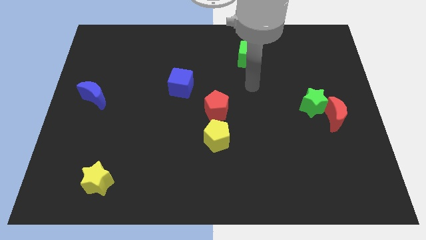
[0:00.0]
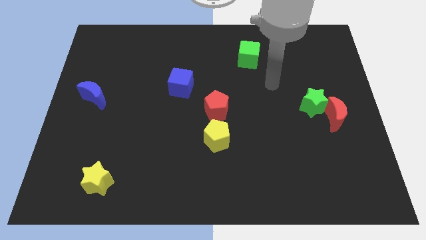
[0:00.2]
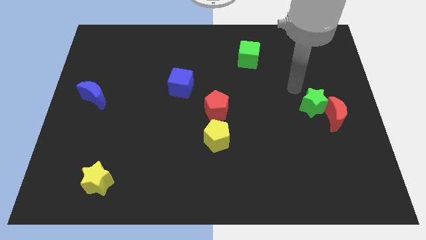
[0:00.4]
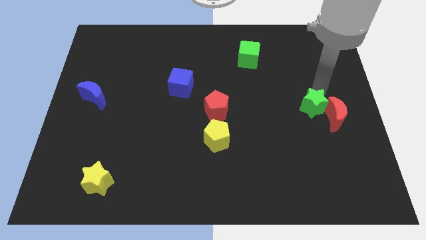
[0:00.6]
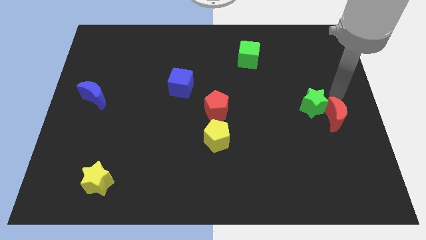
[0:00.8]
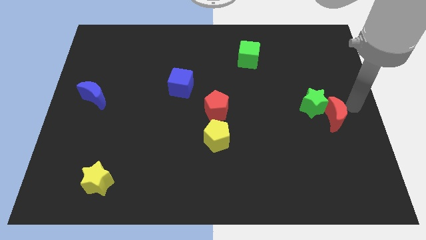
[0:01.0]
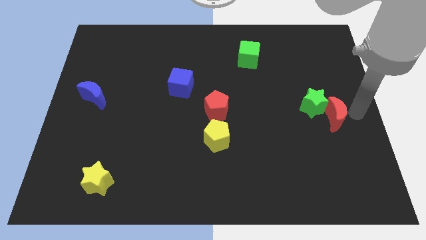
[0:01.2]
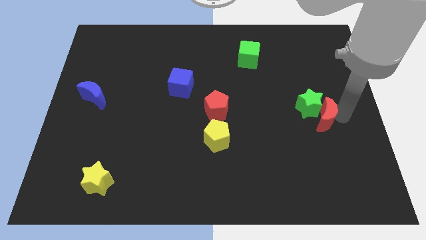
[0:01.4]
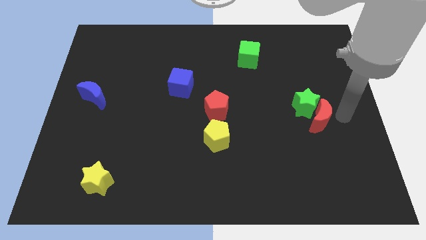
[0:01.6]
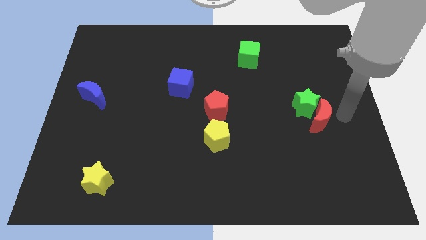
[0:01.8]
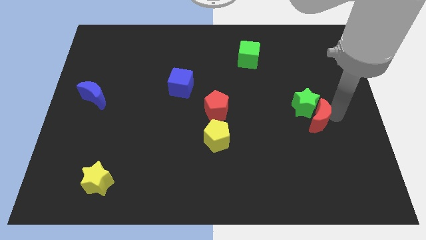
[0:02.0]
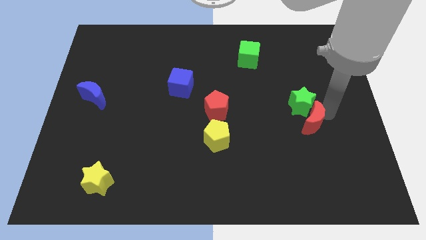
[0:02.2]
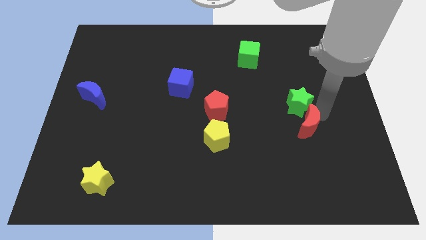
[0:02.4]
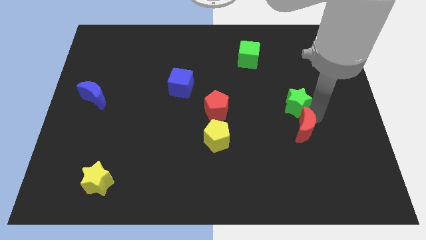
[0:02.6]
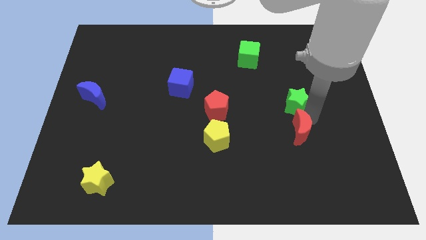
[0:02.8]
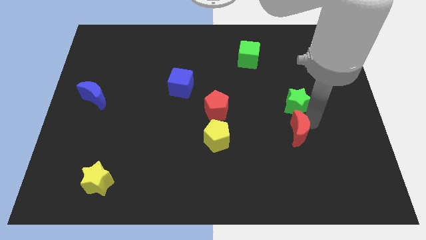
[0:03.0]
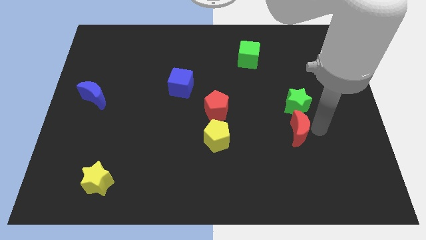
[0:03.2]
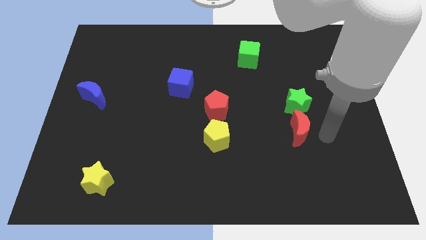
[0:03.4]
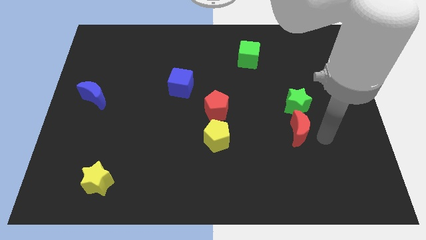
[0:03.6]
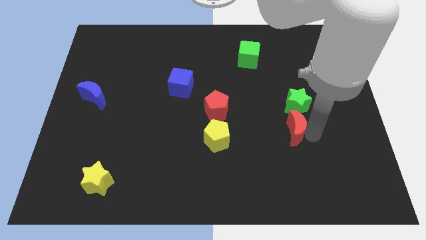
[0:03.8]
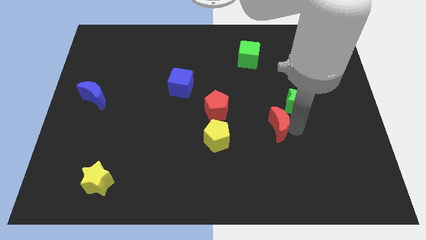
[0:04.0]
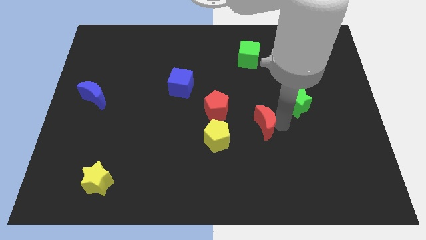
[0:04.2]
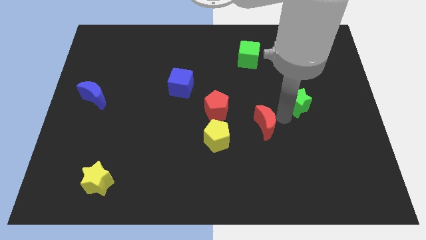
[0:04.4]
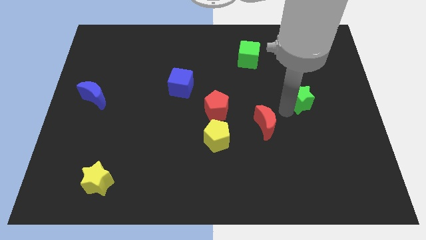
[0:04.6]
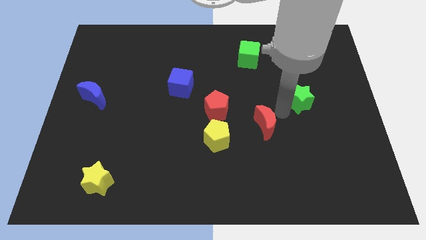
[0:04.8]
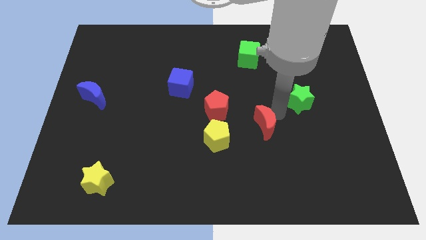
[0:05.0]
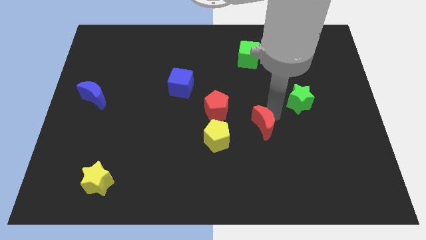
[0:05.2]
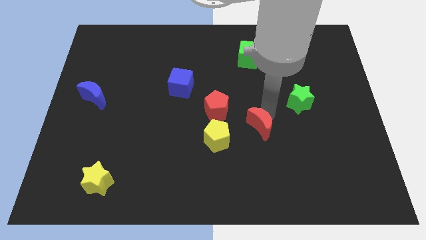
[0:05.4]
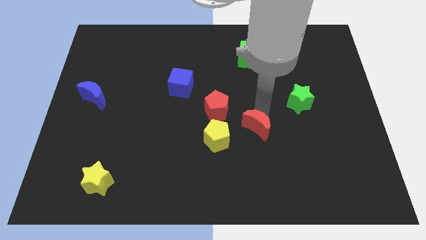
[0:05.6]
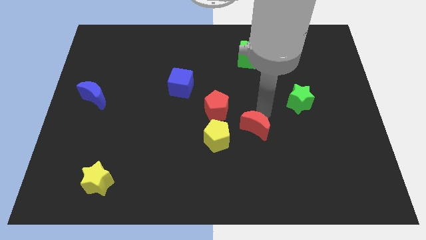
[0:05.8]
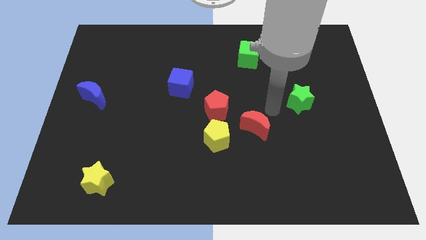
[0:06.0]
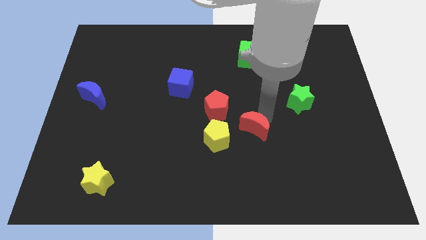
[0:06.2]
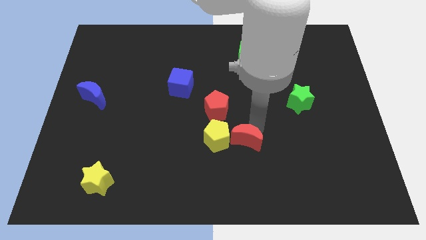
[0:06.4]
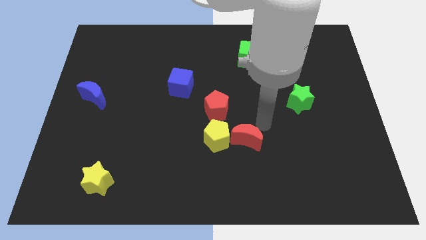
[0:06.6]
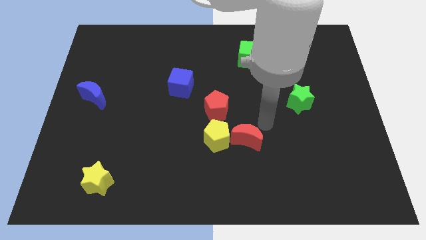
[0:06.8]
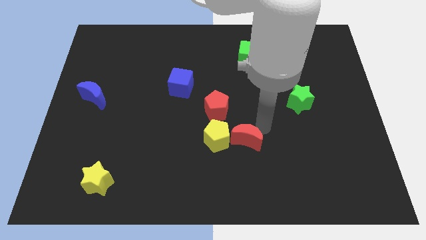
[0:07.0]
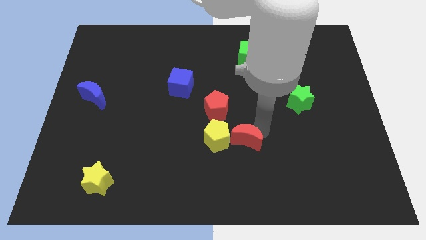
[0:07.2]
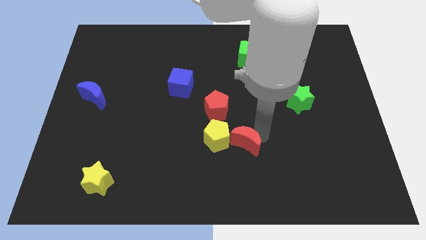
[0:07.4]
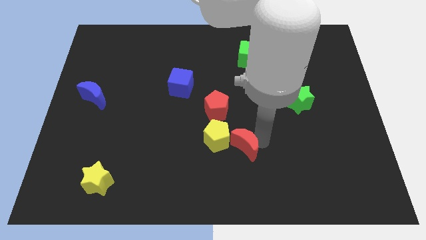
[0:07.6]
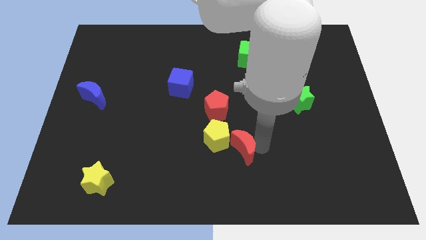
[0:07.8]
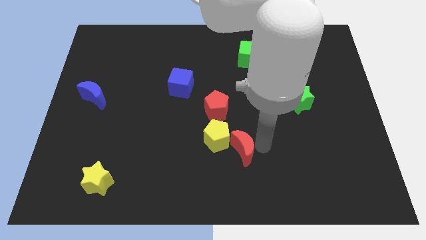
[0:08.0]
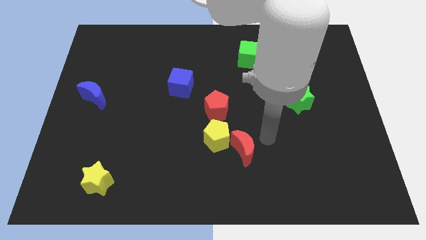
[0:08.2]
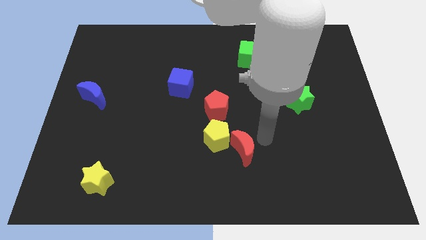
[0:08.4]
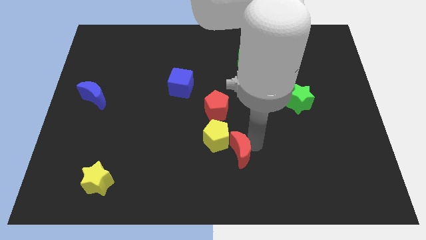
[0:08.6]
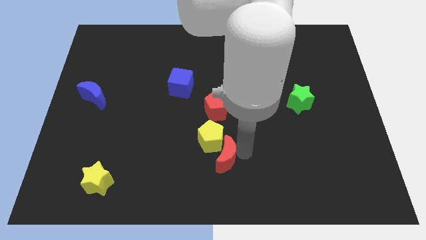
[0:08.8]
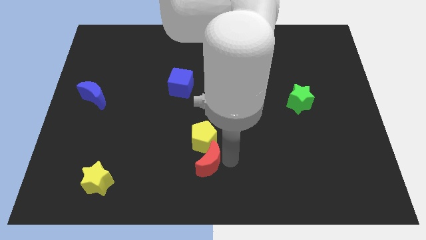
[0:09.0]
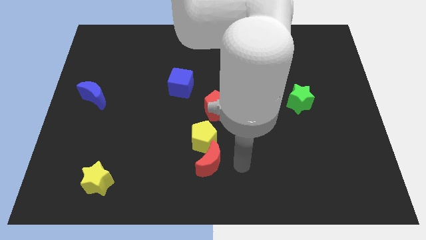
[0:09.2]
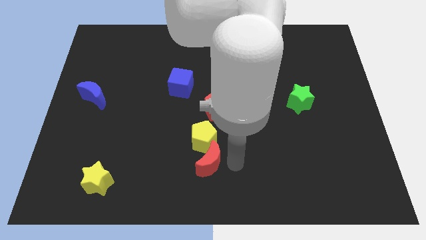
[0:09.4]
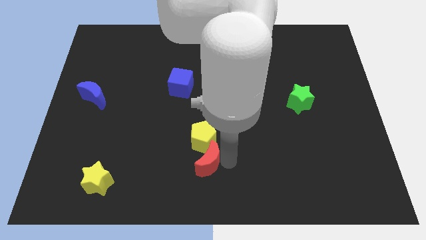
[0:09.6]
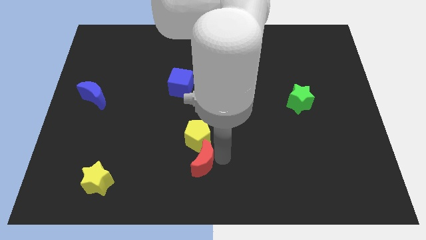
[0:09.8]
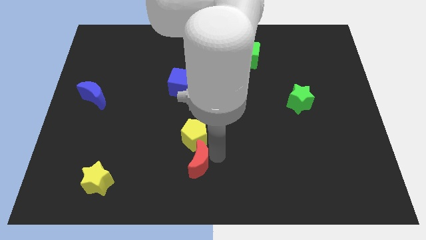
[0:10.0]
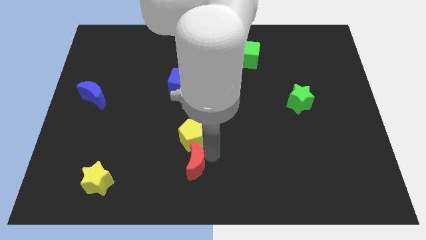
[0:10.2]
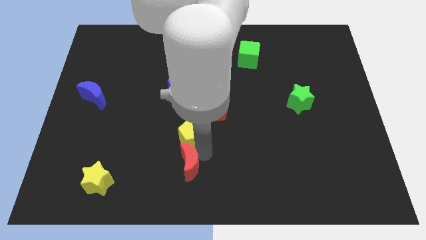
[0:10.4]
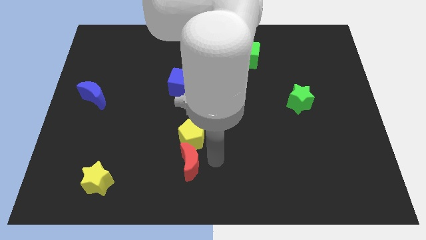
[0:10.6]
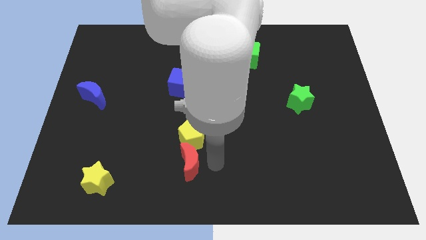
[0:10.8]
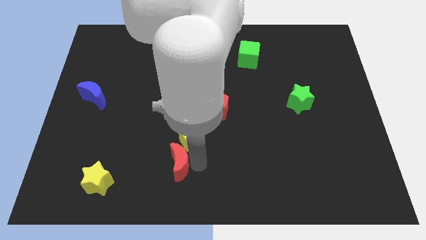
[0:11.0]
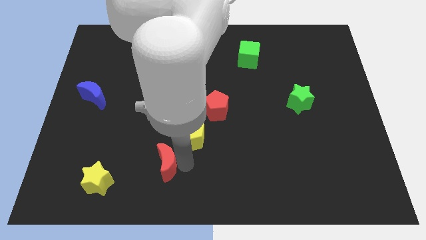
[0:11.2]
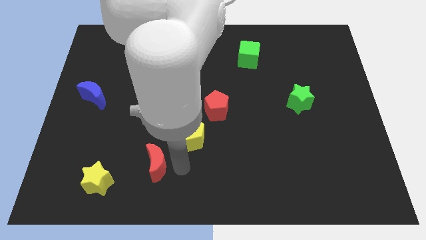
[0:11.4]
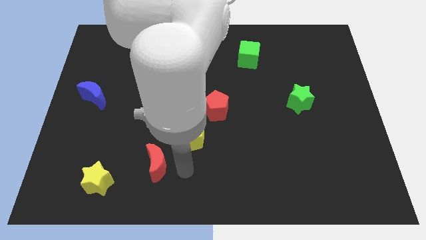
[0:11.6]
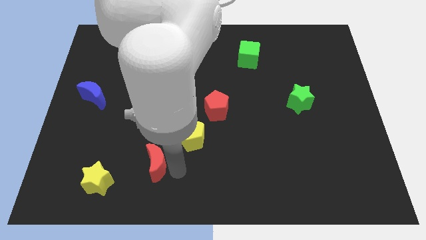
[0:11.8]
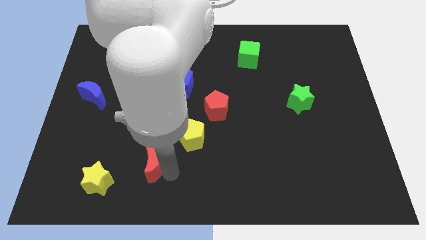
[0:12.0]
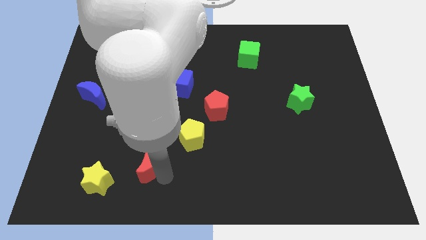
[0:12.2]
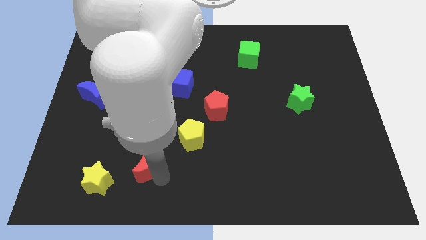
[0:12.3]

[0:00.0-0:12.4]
move the red moon to the top right side of the yellow star

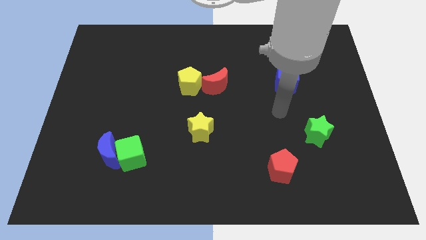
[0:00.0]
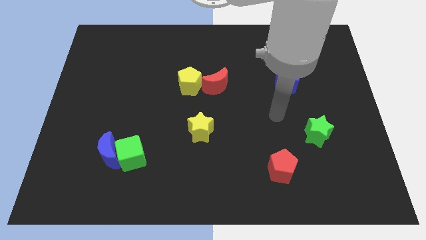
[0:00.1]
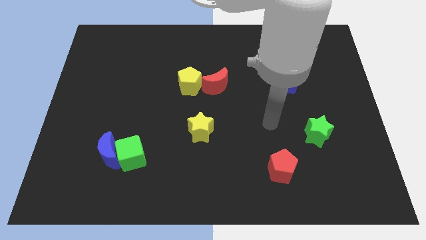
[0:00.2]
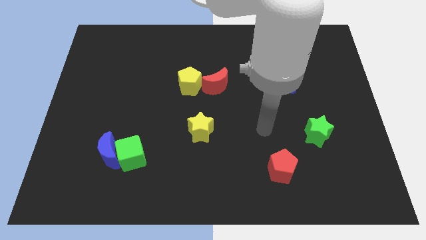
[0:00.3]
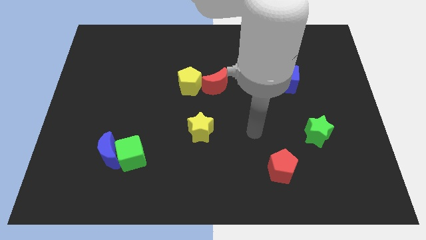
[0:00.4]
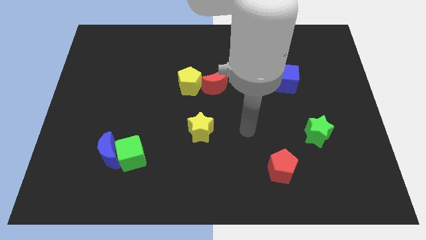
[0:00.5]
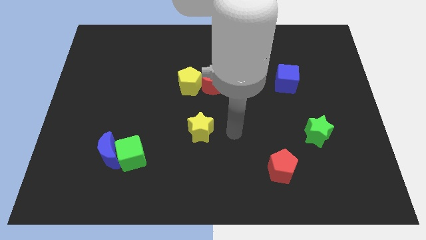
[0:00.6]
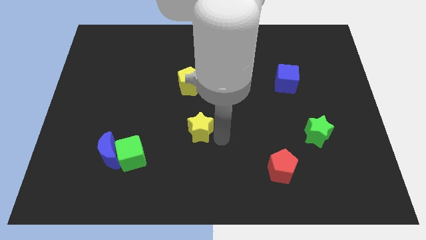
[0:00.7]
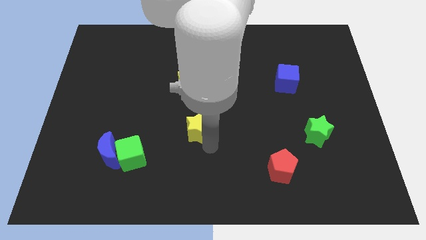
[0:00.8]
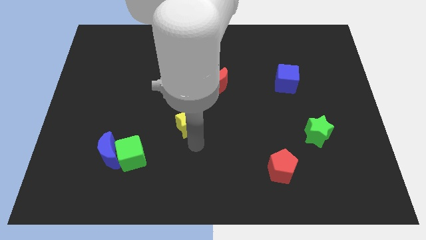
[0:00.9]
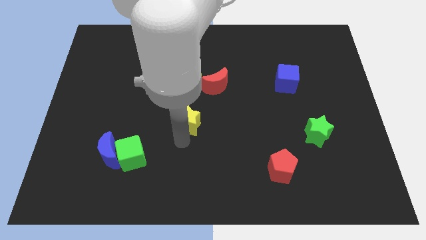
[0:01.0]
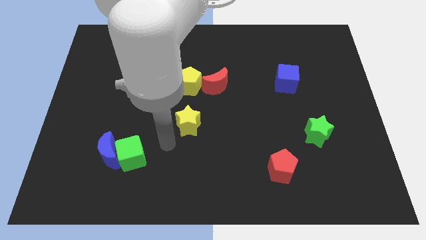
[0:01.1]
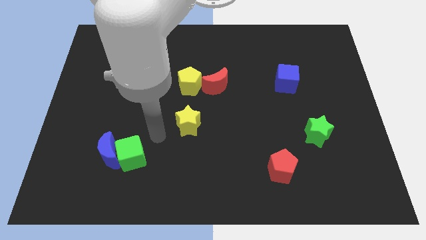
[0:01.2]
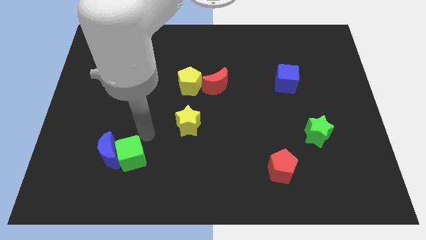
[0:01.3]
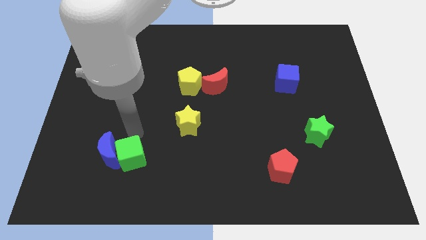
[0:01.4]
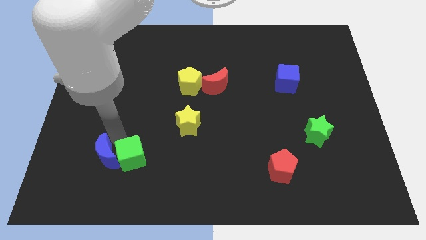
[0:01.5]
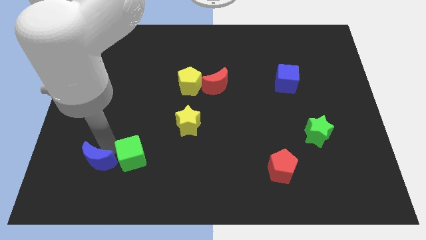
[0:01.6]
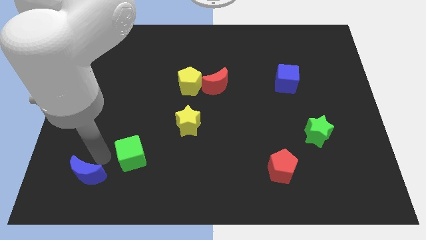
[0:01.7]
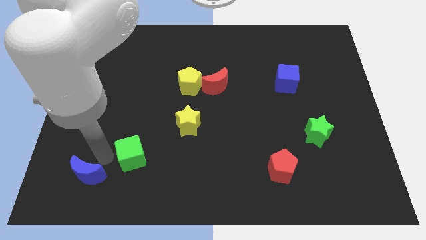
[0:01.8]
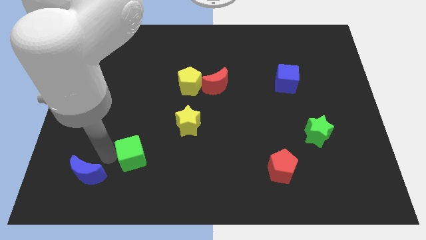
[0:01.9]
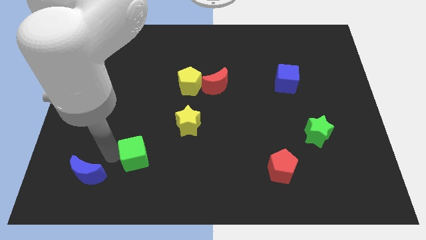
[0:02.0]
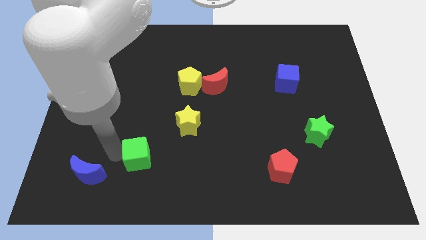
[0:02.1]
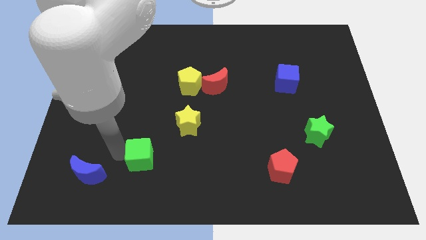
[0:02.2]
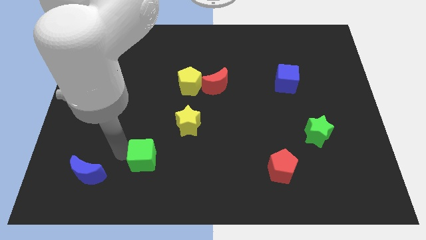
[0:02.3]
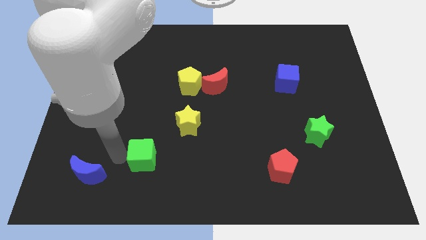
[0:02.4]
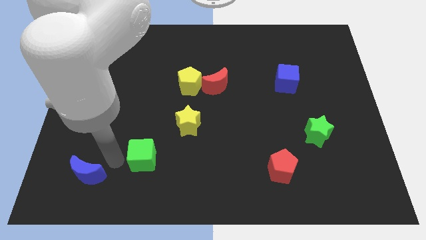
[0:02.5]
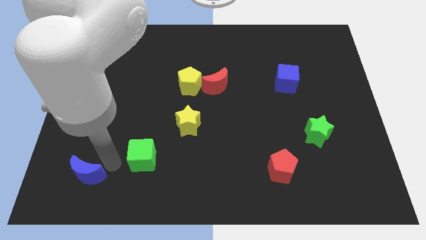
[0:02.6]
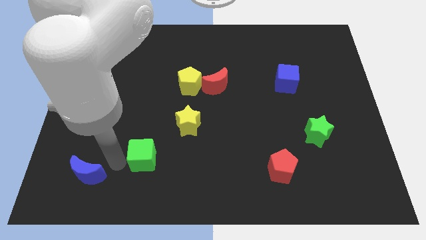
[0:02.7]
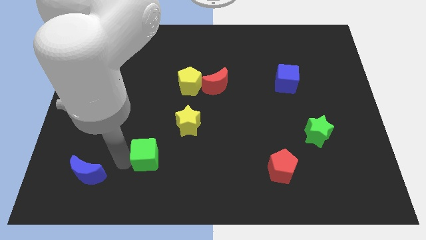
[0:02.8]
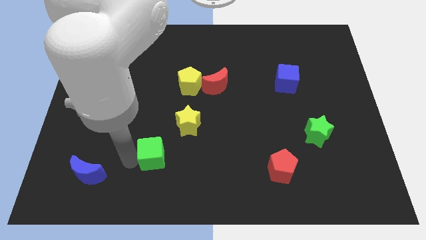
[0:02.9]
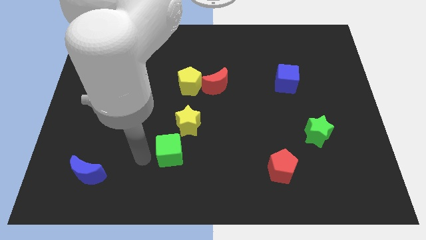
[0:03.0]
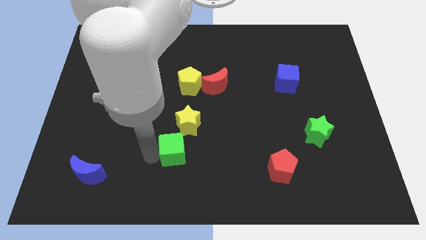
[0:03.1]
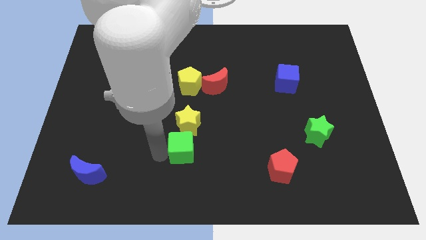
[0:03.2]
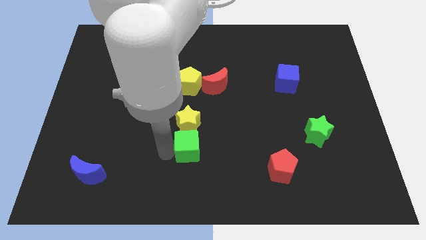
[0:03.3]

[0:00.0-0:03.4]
put the green cube diagonally down and to the right of the yellow star
